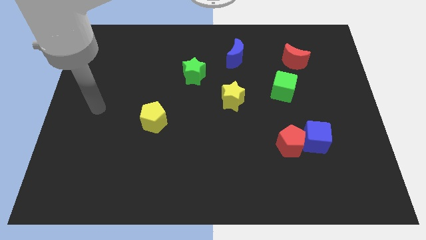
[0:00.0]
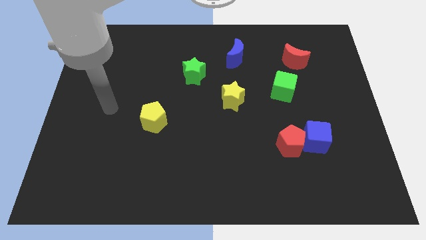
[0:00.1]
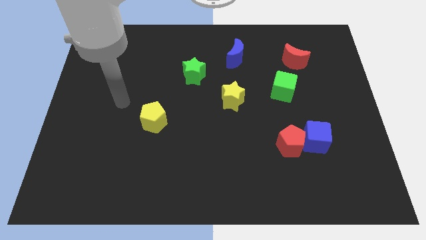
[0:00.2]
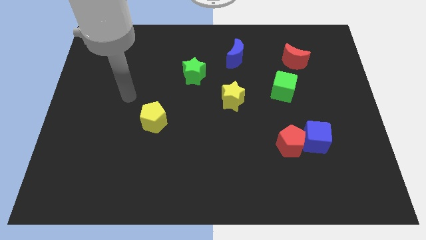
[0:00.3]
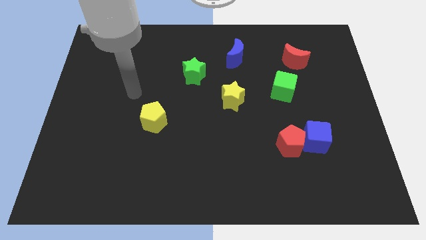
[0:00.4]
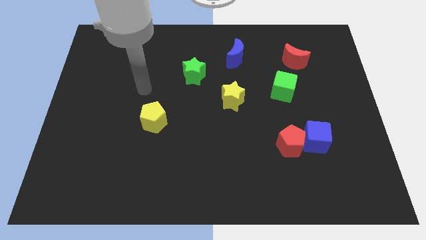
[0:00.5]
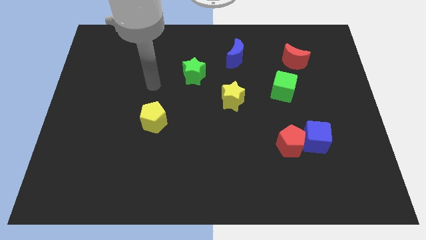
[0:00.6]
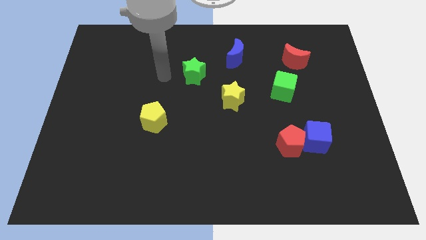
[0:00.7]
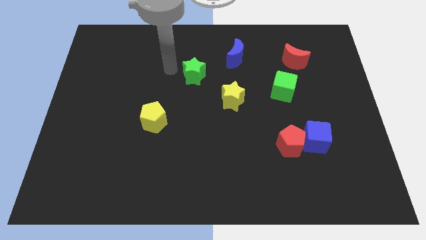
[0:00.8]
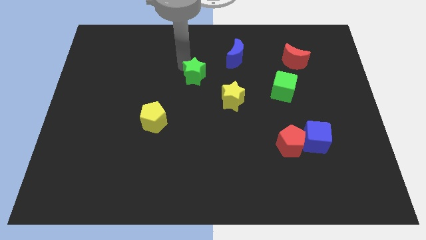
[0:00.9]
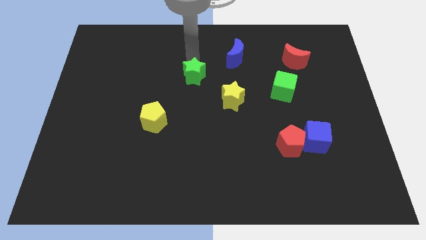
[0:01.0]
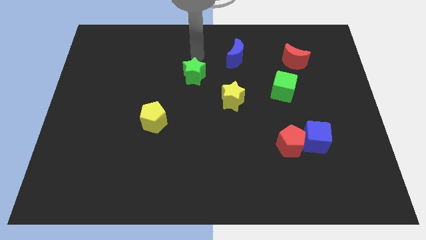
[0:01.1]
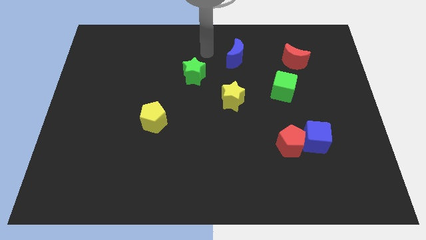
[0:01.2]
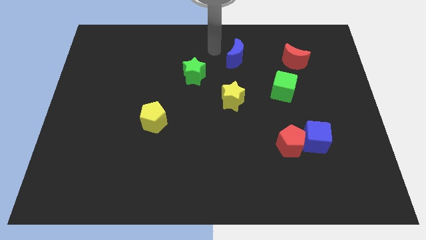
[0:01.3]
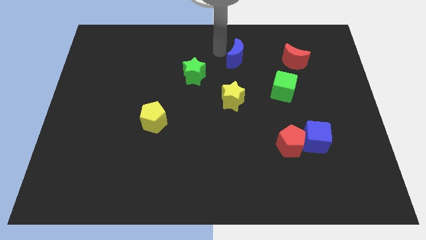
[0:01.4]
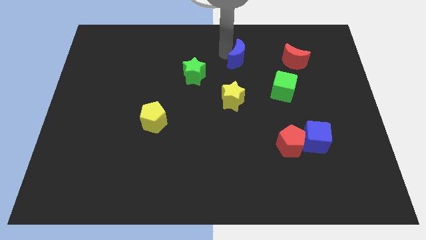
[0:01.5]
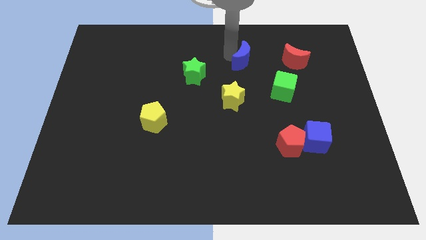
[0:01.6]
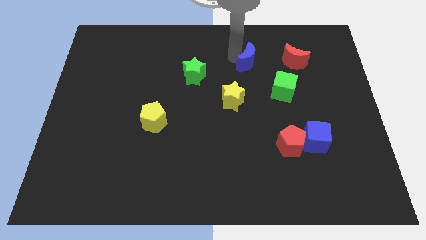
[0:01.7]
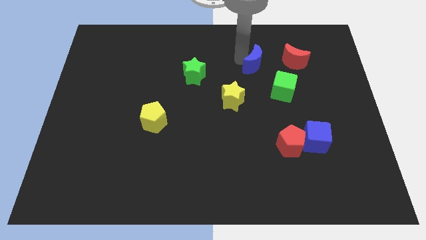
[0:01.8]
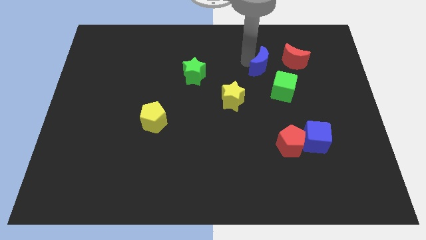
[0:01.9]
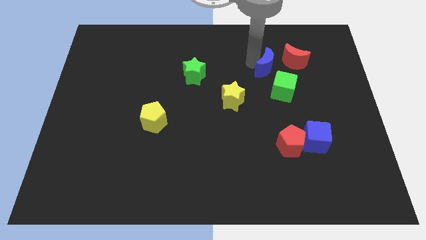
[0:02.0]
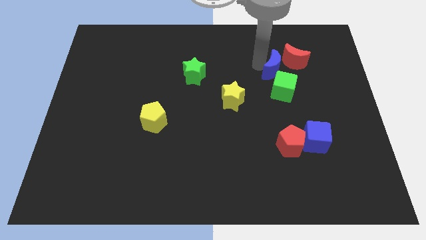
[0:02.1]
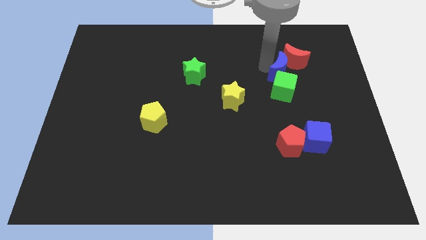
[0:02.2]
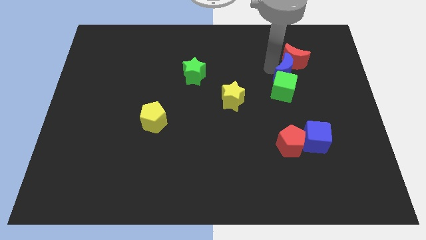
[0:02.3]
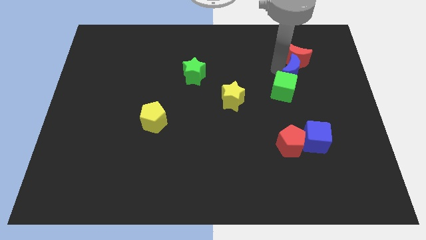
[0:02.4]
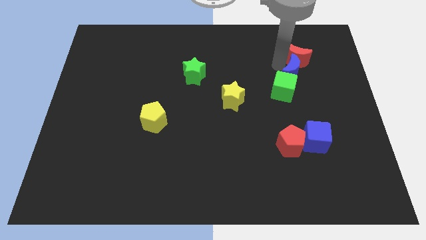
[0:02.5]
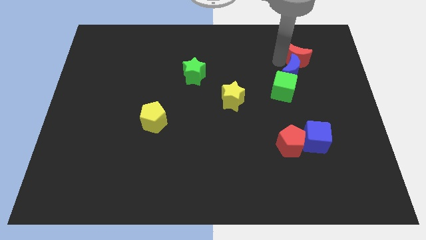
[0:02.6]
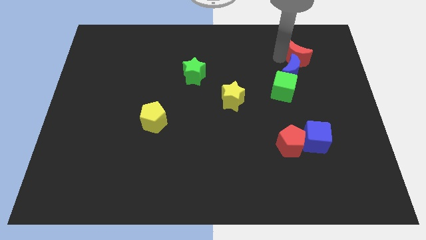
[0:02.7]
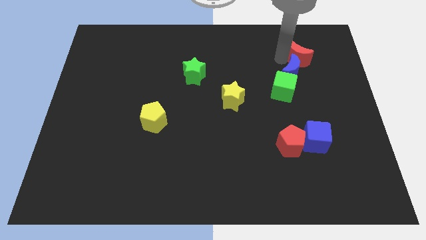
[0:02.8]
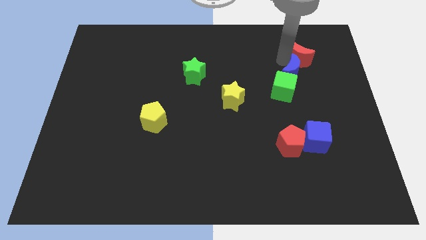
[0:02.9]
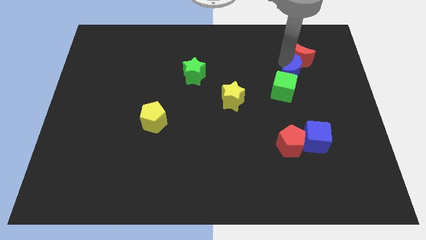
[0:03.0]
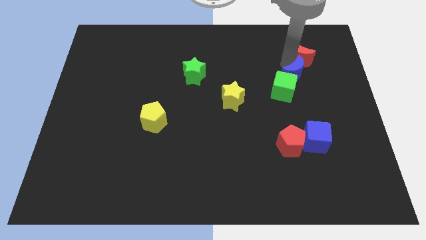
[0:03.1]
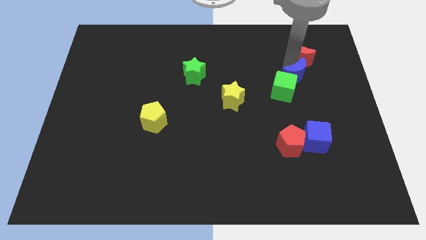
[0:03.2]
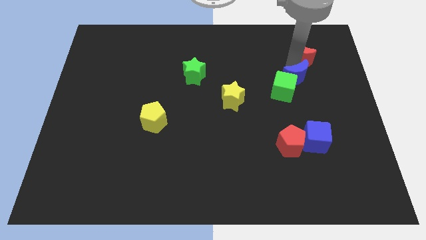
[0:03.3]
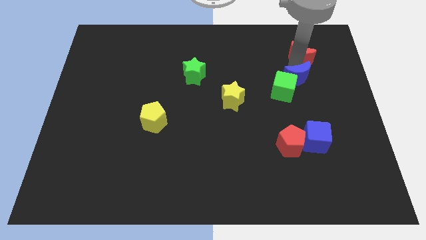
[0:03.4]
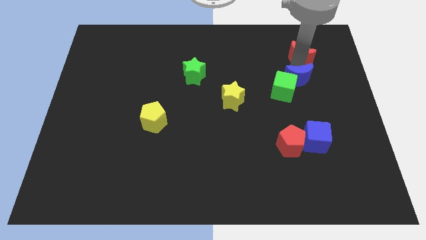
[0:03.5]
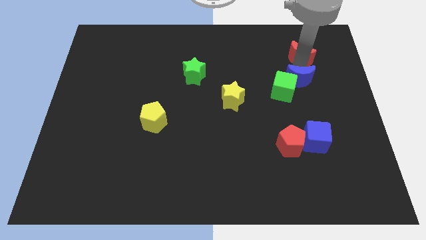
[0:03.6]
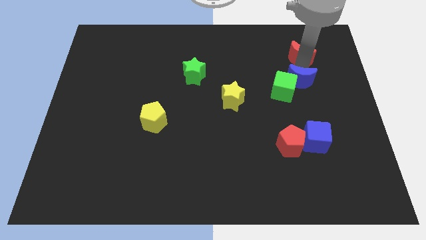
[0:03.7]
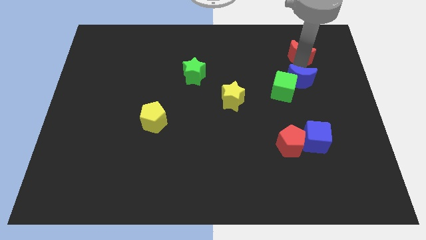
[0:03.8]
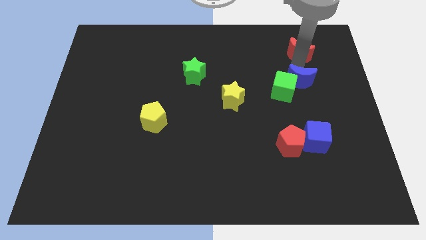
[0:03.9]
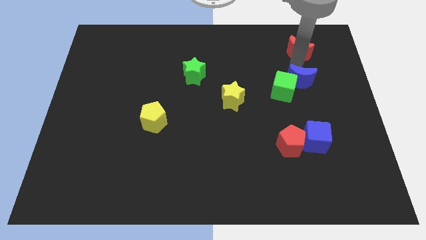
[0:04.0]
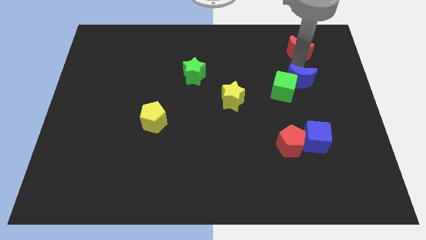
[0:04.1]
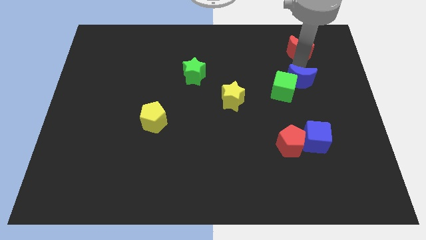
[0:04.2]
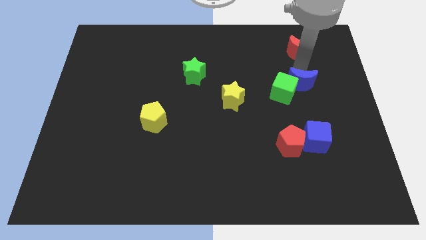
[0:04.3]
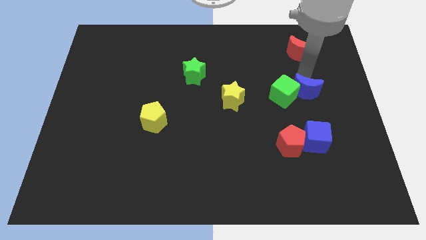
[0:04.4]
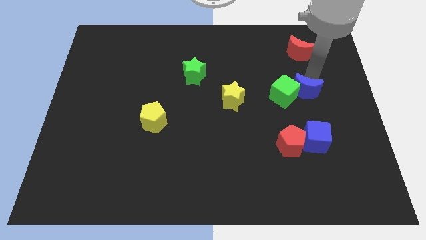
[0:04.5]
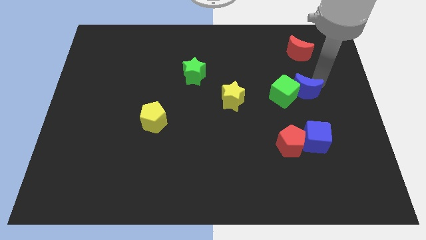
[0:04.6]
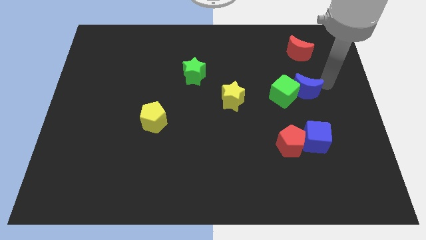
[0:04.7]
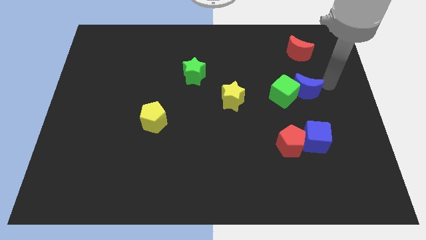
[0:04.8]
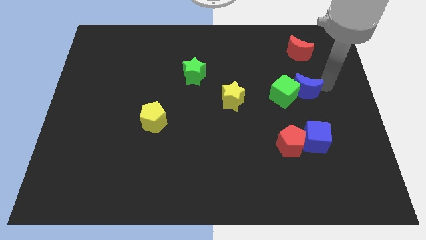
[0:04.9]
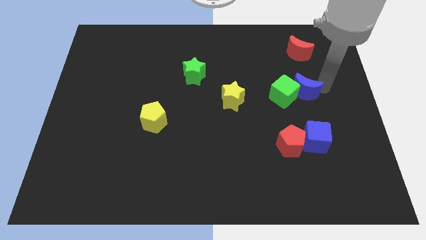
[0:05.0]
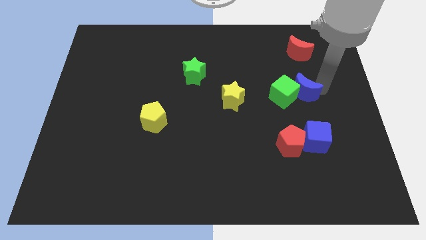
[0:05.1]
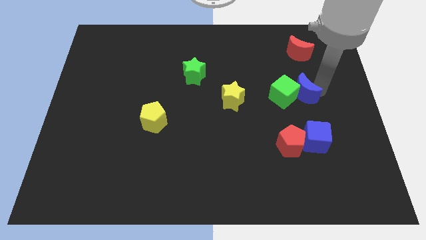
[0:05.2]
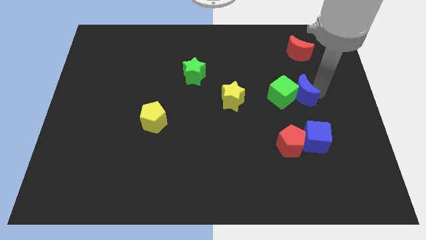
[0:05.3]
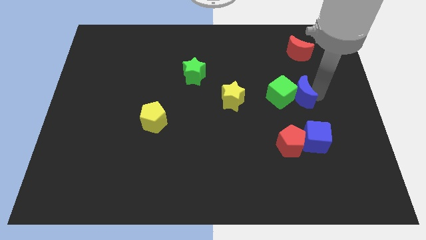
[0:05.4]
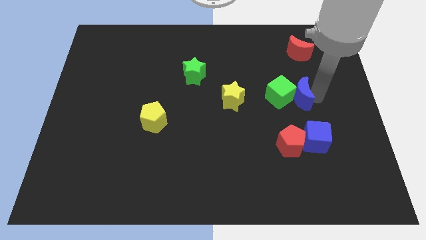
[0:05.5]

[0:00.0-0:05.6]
put the blue moon to the right of the yellow star

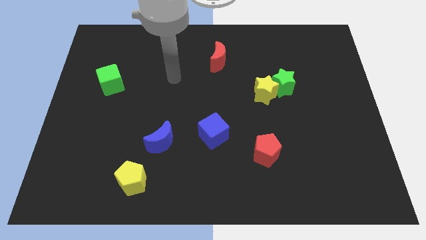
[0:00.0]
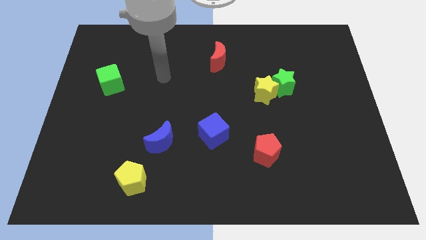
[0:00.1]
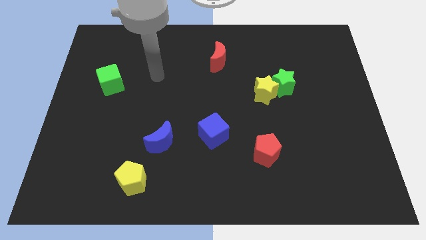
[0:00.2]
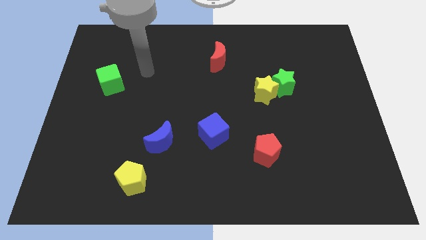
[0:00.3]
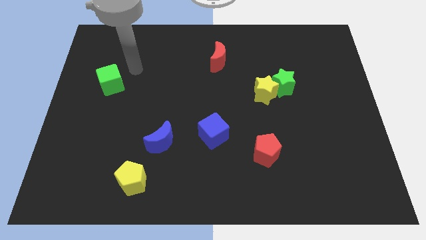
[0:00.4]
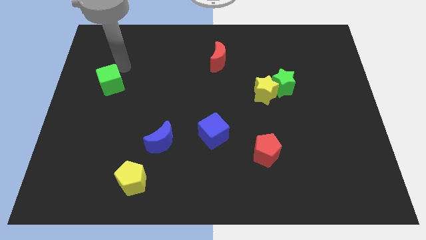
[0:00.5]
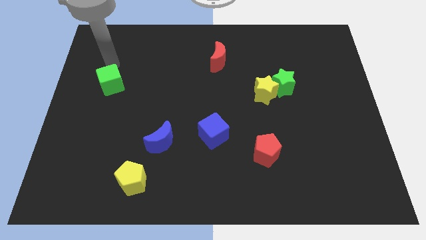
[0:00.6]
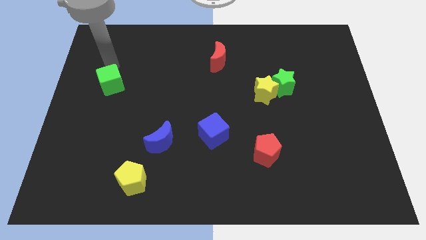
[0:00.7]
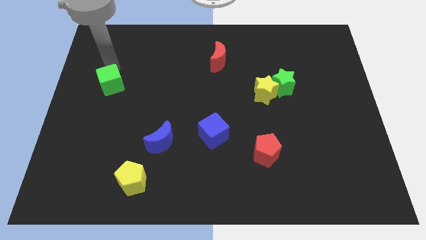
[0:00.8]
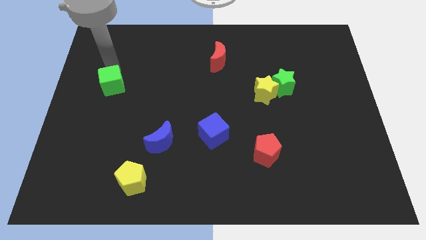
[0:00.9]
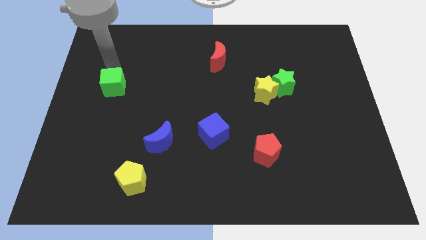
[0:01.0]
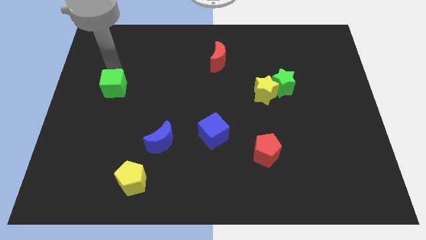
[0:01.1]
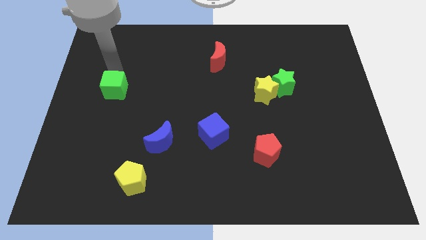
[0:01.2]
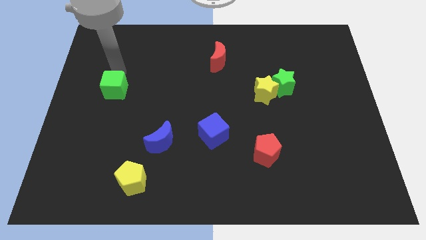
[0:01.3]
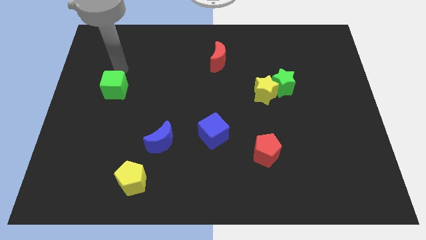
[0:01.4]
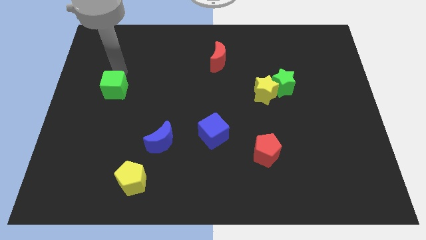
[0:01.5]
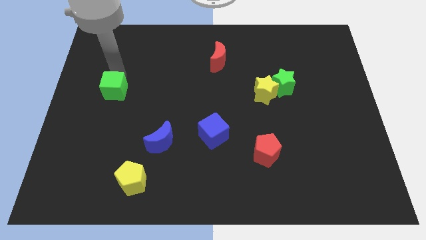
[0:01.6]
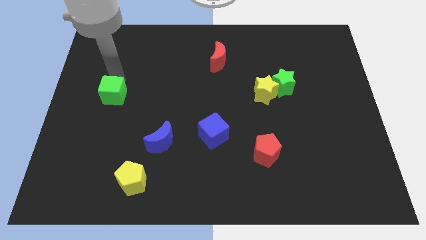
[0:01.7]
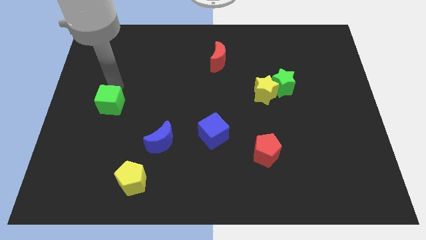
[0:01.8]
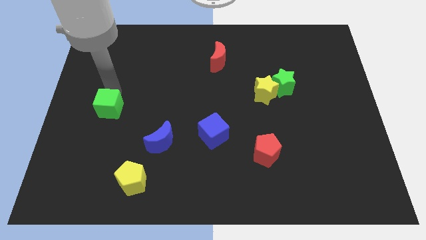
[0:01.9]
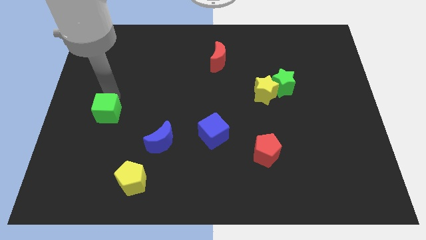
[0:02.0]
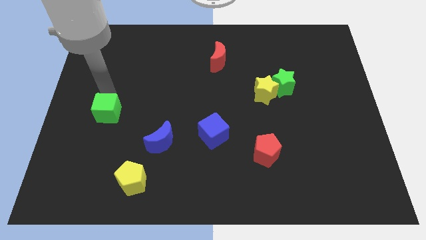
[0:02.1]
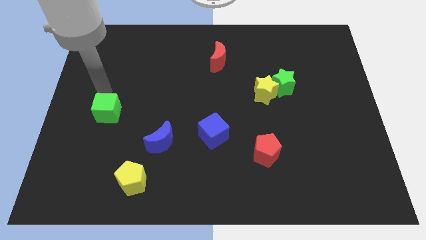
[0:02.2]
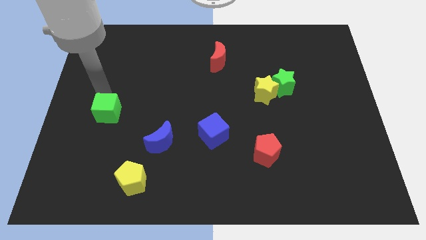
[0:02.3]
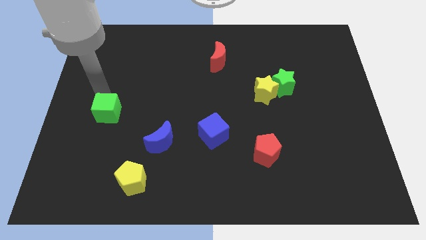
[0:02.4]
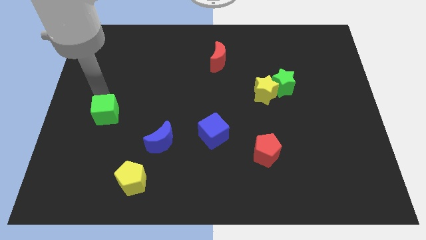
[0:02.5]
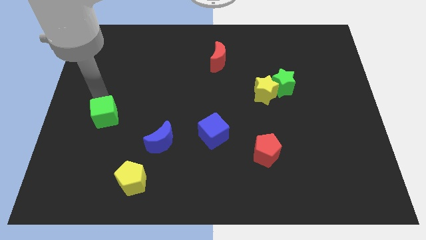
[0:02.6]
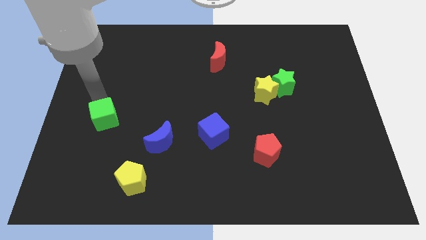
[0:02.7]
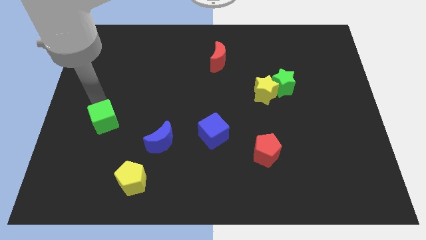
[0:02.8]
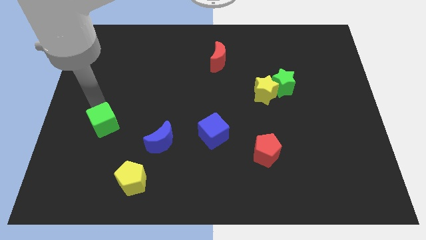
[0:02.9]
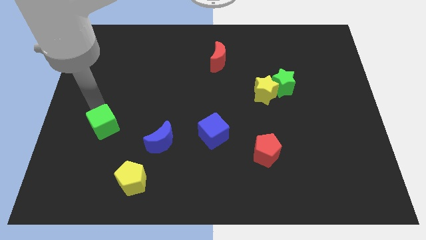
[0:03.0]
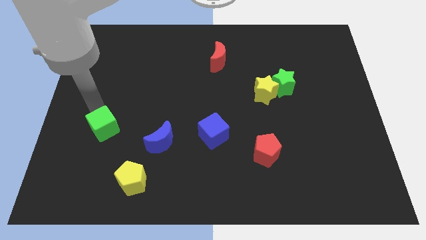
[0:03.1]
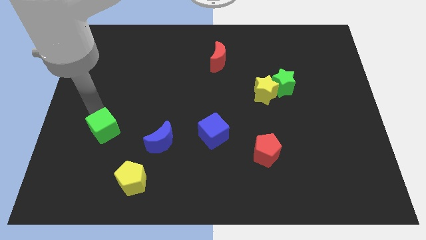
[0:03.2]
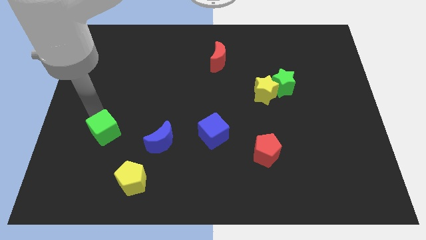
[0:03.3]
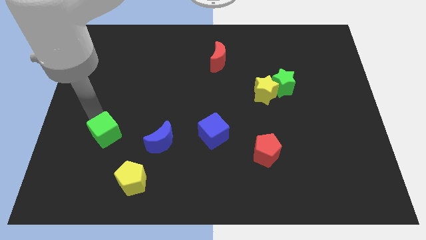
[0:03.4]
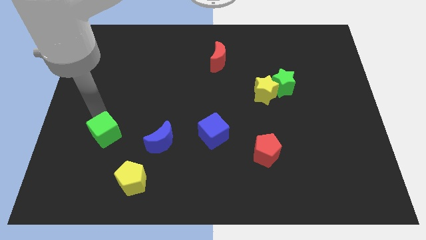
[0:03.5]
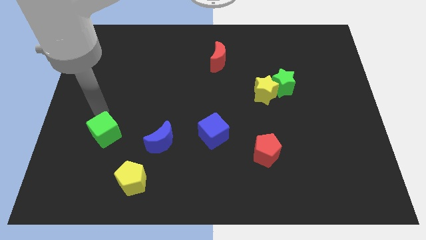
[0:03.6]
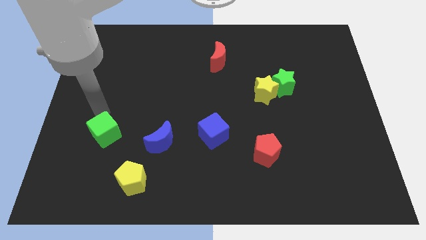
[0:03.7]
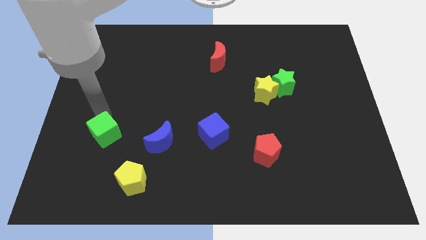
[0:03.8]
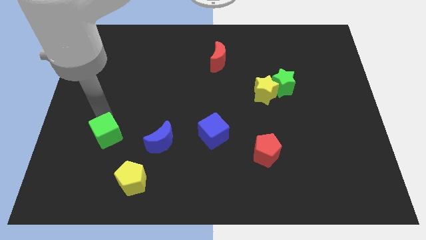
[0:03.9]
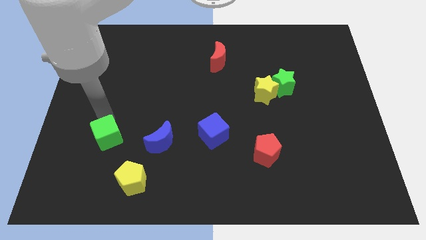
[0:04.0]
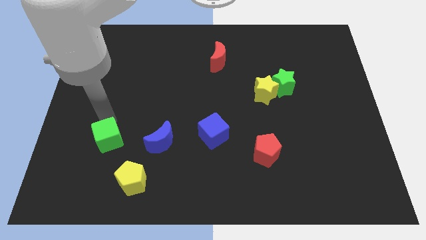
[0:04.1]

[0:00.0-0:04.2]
push the green cube diagonally up and to the left of the yellow pentagon
